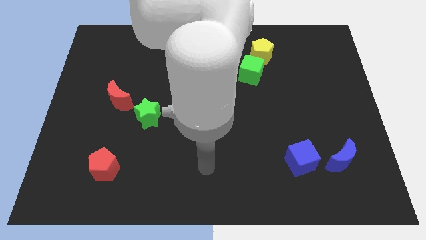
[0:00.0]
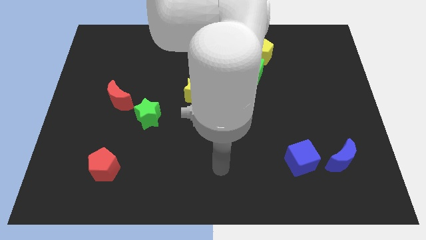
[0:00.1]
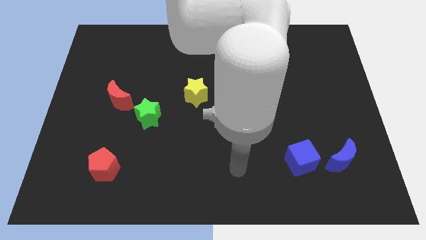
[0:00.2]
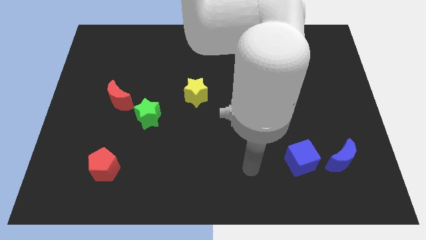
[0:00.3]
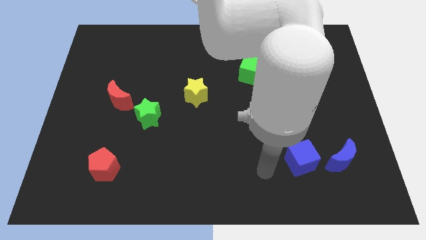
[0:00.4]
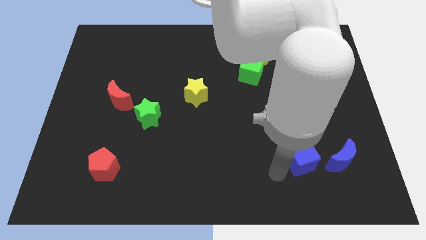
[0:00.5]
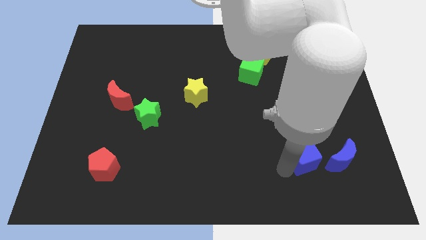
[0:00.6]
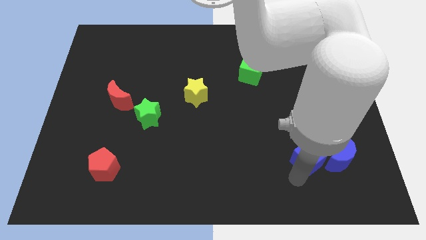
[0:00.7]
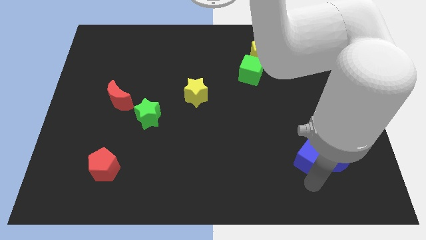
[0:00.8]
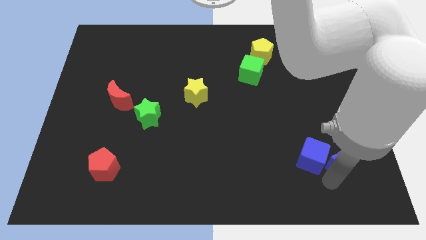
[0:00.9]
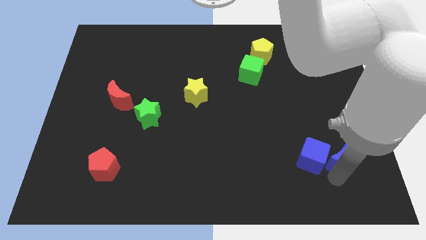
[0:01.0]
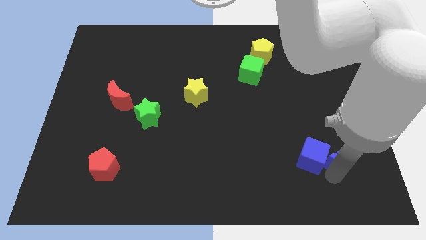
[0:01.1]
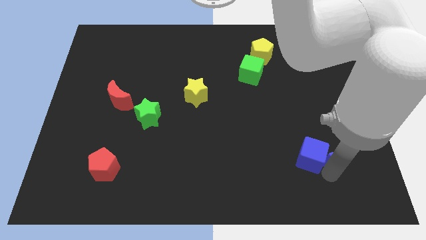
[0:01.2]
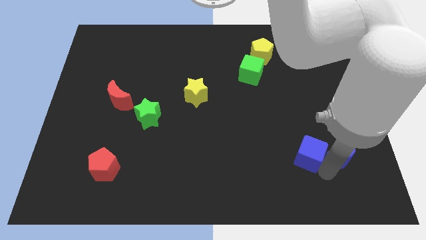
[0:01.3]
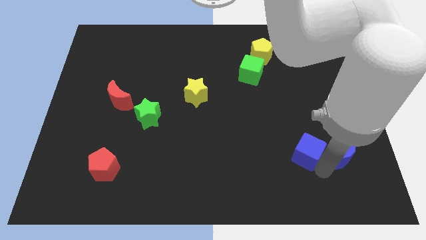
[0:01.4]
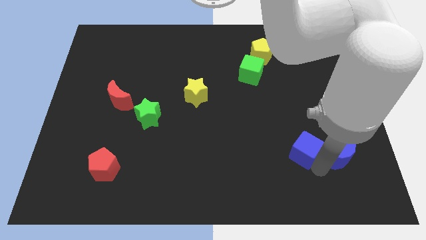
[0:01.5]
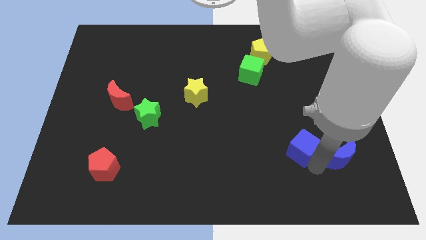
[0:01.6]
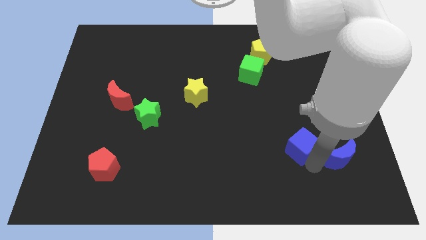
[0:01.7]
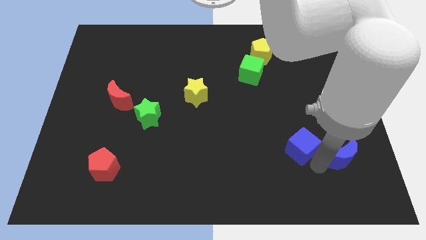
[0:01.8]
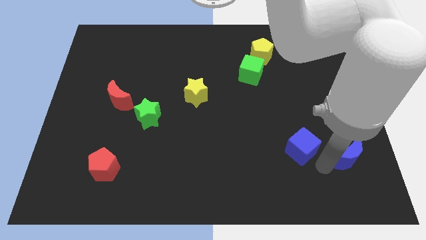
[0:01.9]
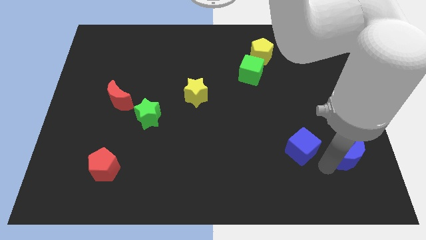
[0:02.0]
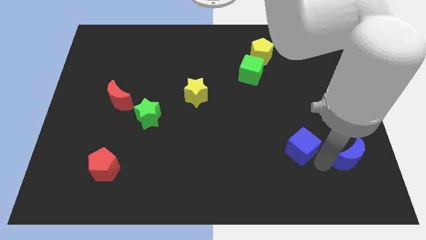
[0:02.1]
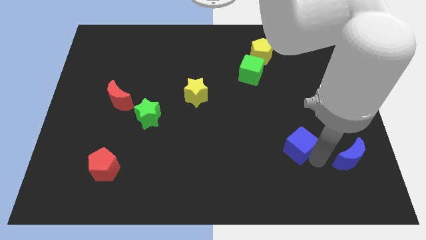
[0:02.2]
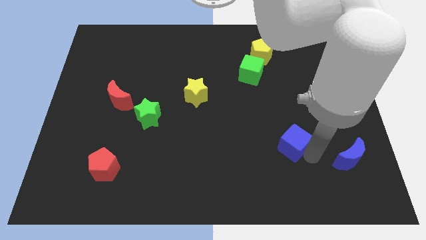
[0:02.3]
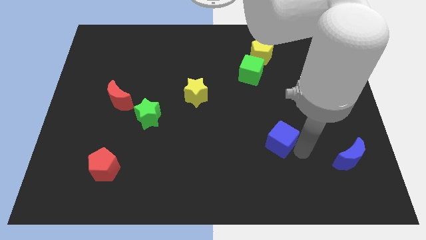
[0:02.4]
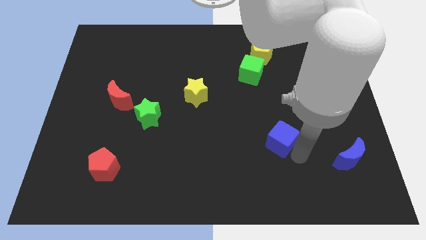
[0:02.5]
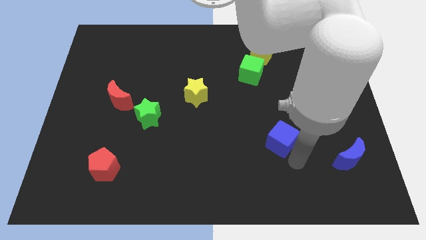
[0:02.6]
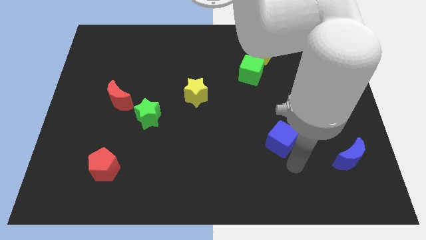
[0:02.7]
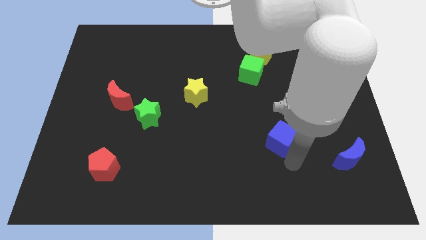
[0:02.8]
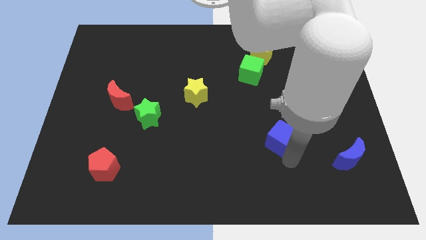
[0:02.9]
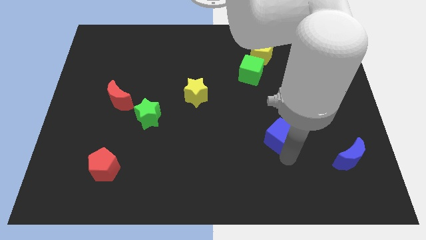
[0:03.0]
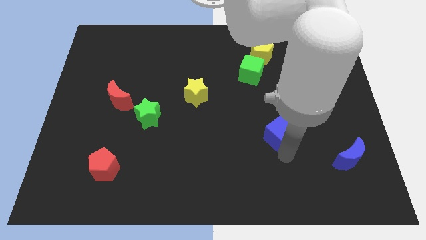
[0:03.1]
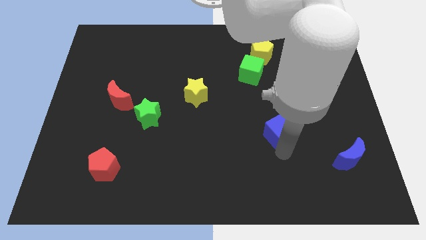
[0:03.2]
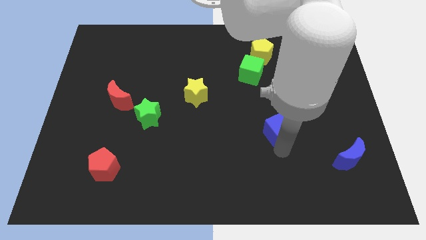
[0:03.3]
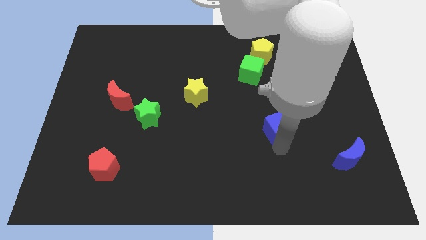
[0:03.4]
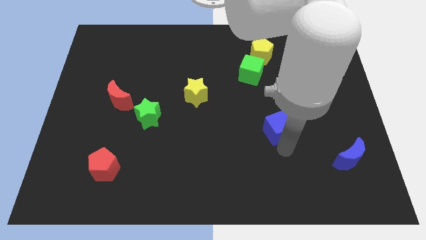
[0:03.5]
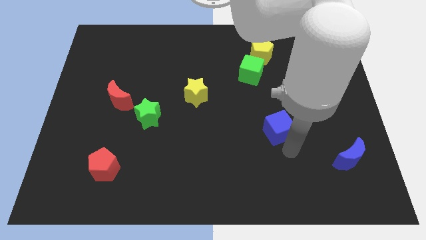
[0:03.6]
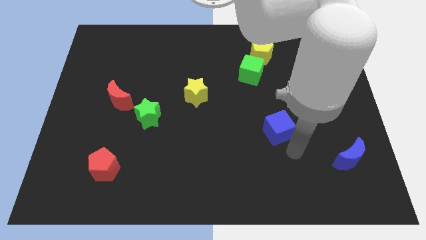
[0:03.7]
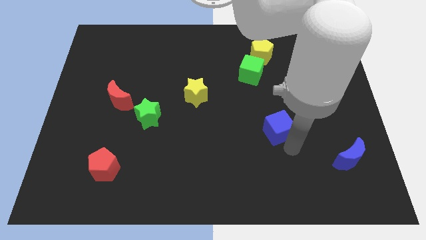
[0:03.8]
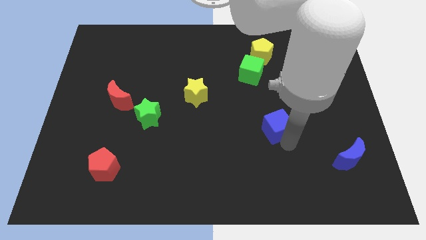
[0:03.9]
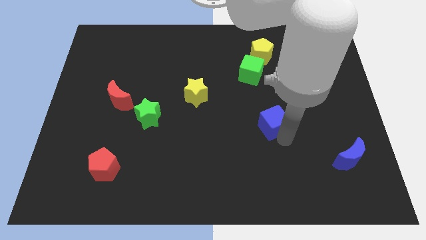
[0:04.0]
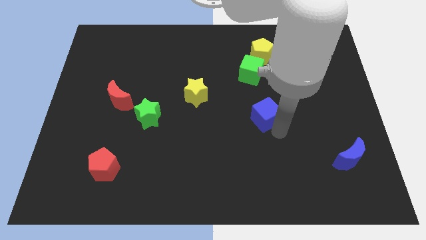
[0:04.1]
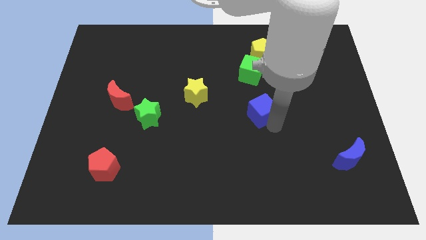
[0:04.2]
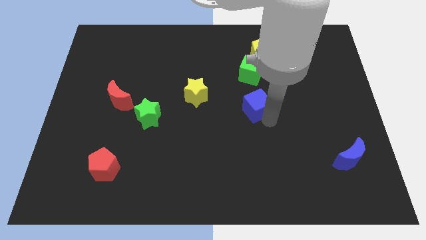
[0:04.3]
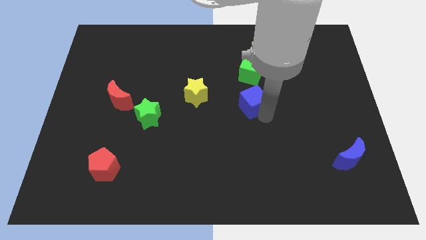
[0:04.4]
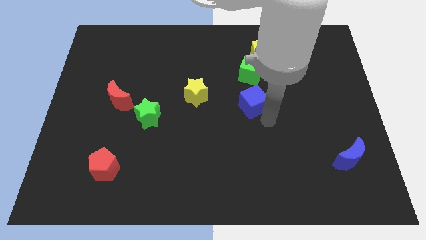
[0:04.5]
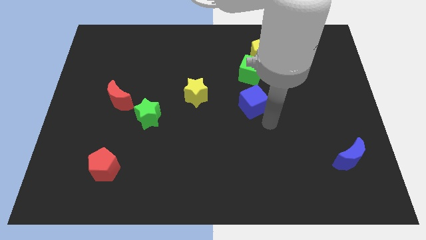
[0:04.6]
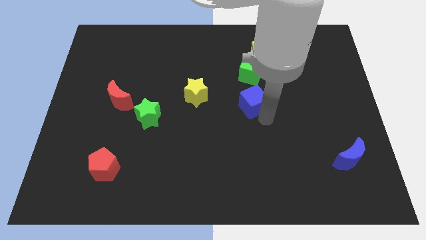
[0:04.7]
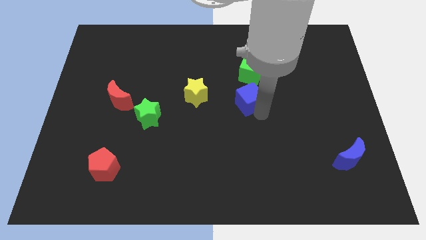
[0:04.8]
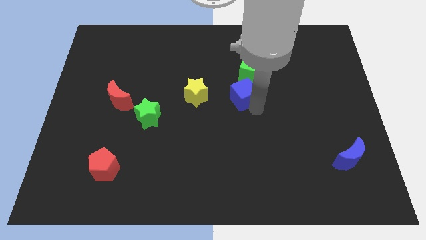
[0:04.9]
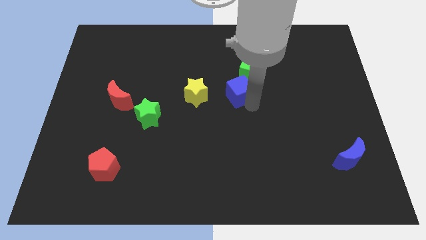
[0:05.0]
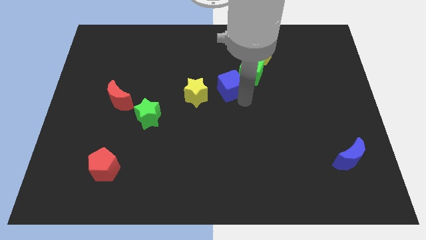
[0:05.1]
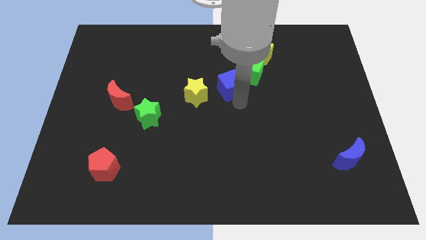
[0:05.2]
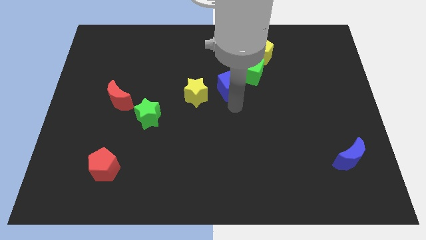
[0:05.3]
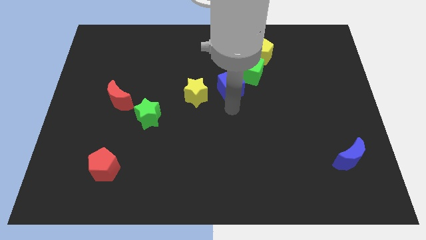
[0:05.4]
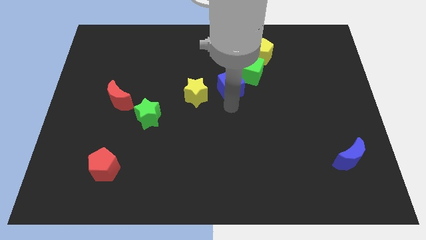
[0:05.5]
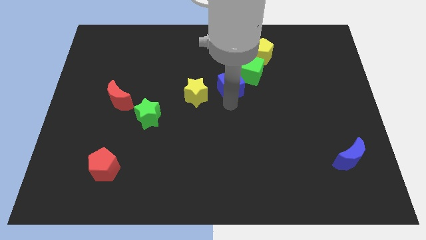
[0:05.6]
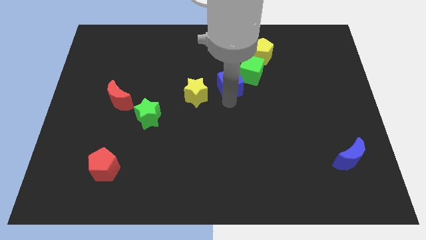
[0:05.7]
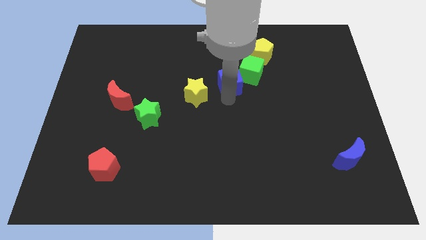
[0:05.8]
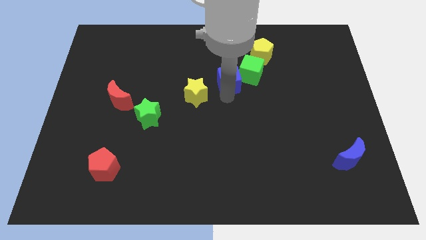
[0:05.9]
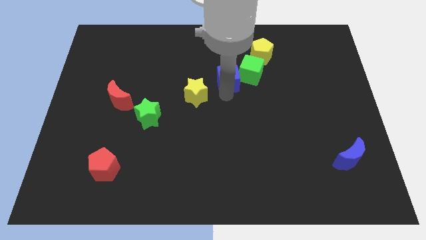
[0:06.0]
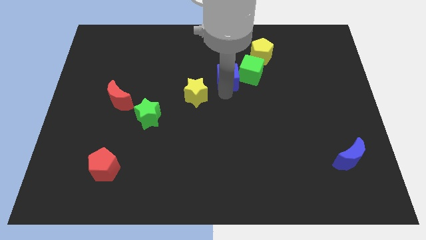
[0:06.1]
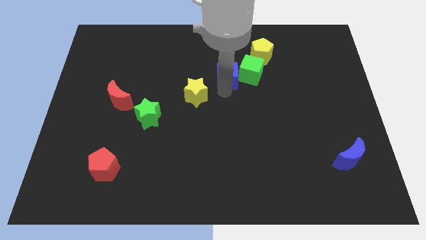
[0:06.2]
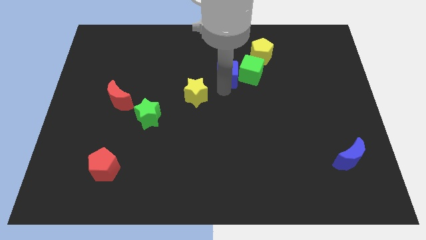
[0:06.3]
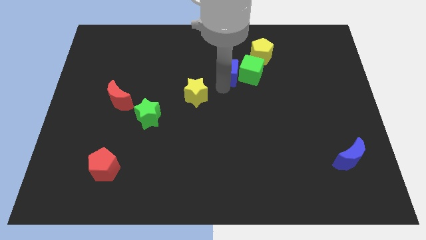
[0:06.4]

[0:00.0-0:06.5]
push the blue cube to the top left of the green cube

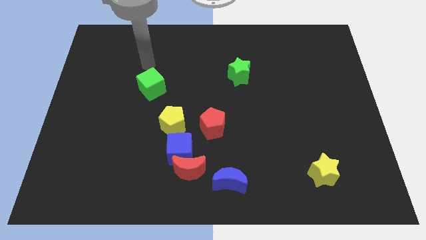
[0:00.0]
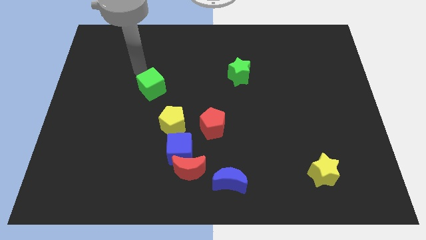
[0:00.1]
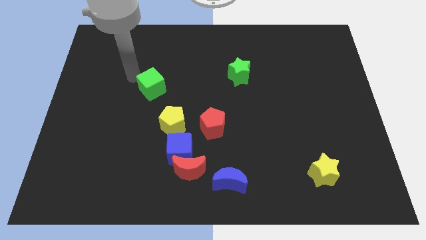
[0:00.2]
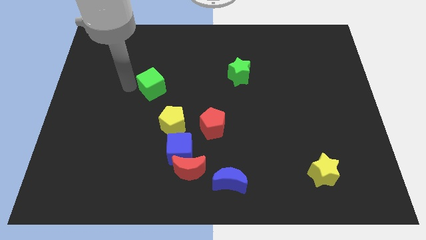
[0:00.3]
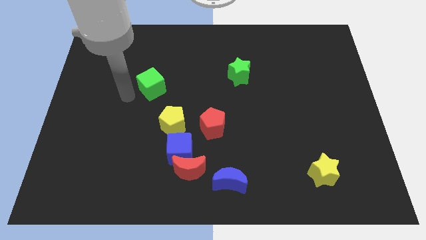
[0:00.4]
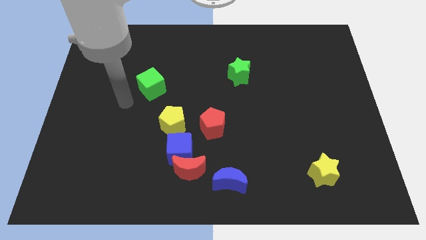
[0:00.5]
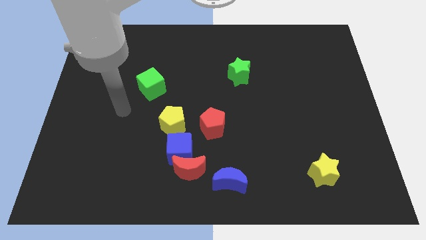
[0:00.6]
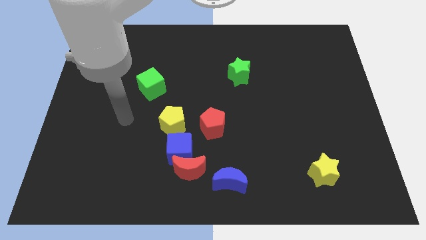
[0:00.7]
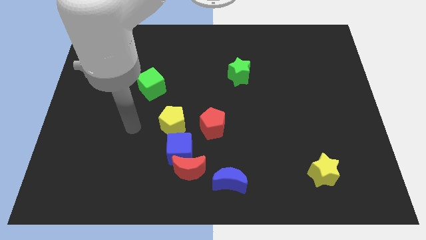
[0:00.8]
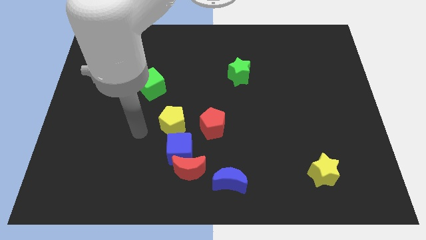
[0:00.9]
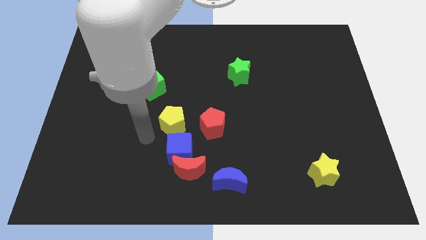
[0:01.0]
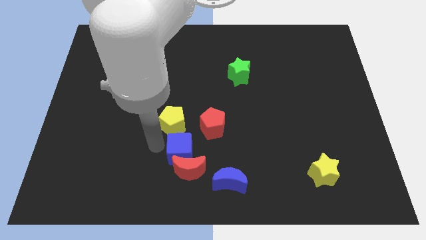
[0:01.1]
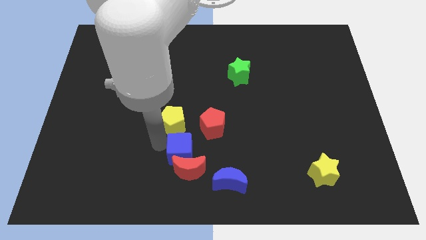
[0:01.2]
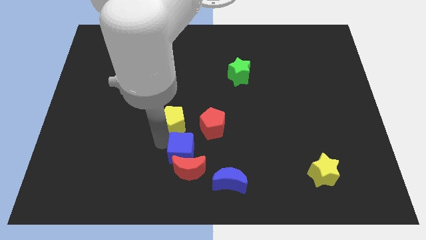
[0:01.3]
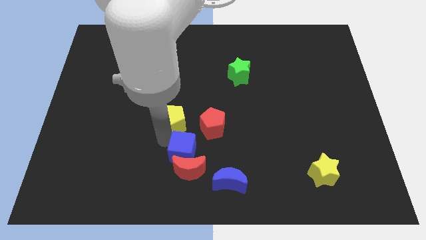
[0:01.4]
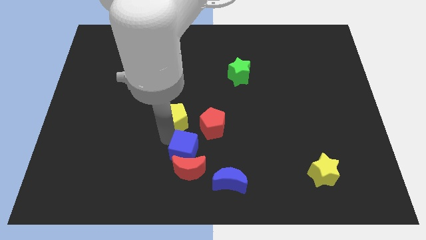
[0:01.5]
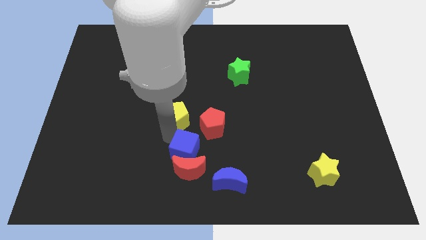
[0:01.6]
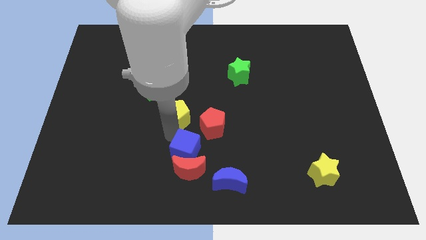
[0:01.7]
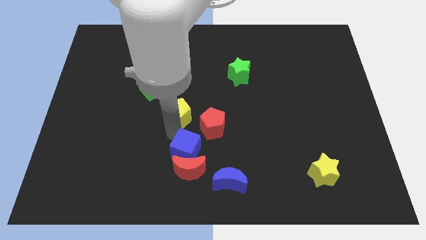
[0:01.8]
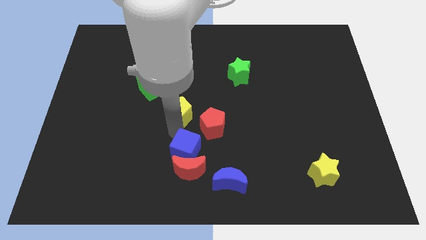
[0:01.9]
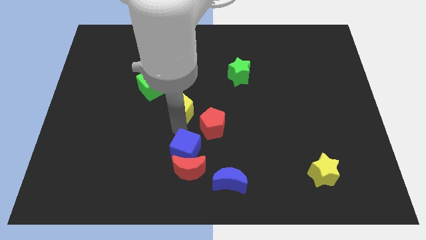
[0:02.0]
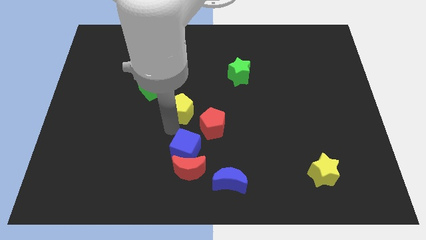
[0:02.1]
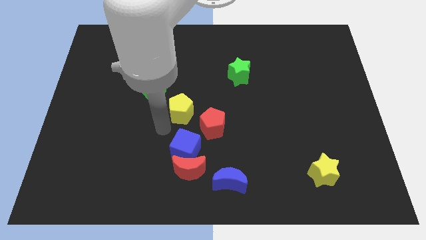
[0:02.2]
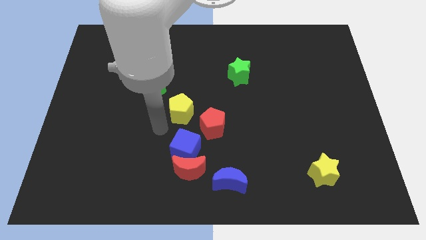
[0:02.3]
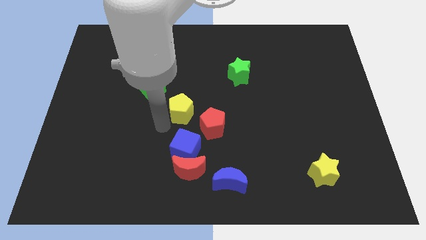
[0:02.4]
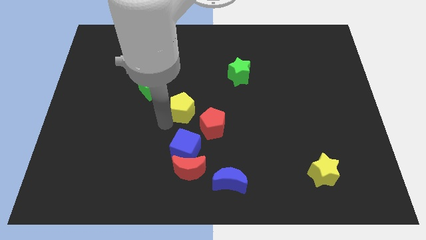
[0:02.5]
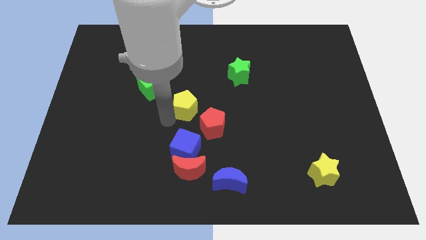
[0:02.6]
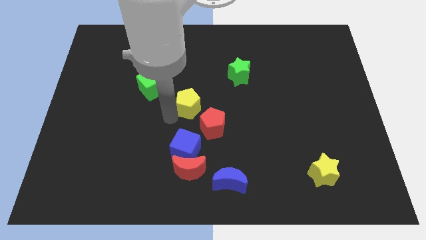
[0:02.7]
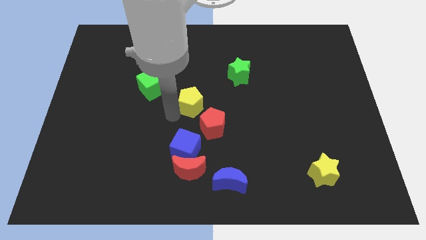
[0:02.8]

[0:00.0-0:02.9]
push the yellow pentagon to the top side of the red pentagon
